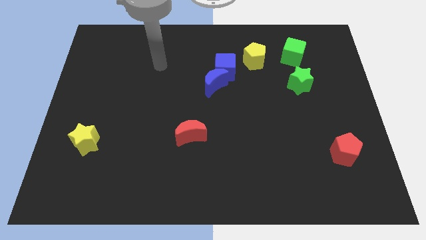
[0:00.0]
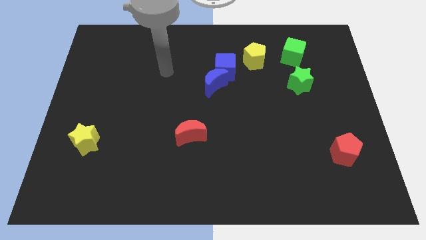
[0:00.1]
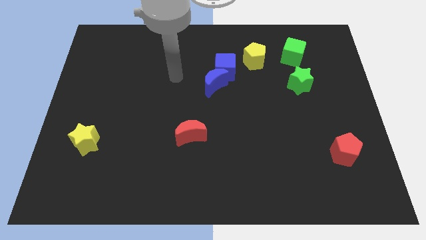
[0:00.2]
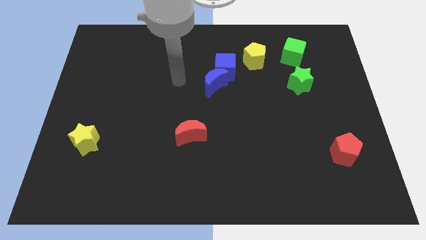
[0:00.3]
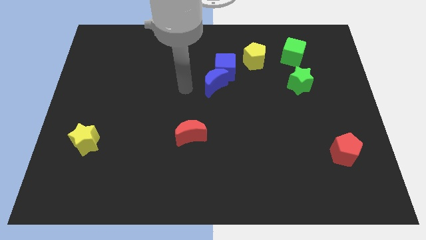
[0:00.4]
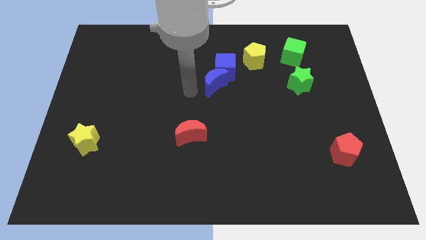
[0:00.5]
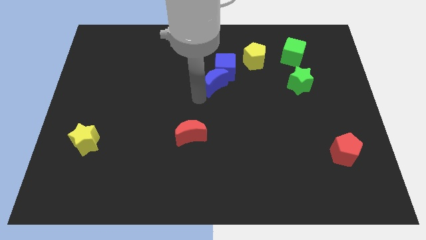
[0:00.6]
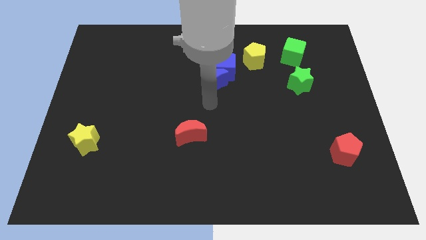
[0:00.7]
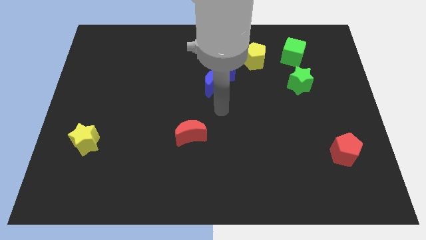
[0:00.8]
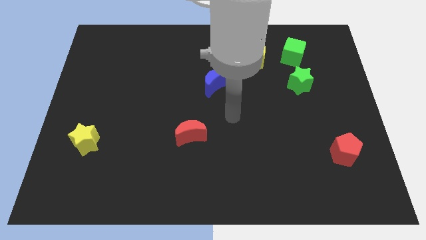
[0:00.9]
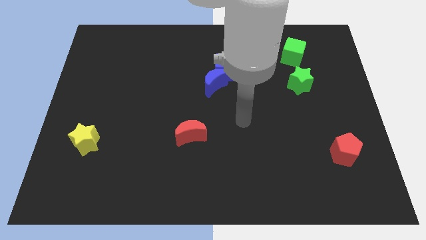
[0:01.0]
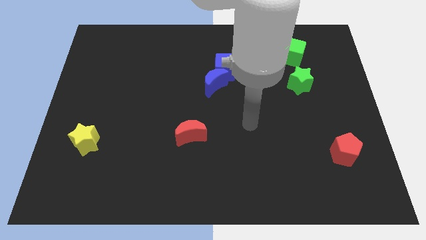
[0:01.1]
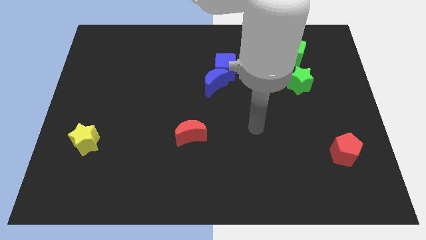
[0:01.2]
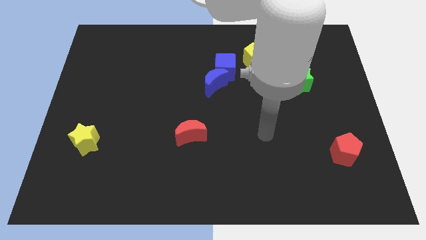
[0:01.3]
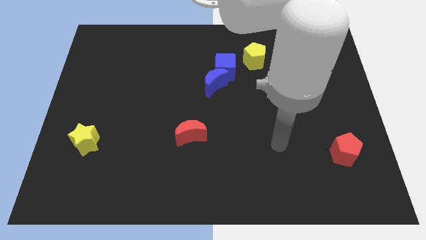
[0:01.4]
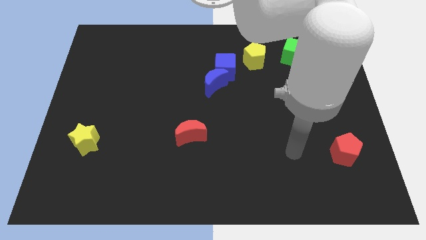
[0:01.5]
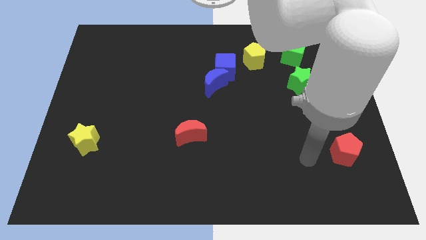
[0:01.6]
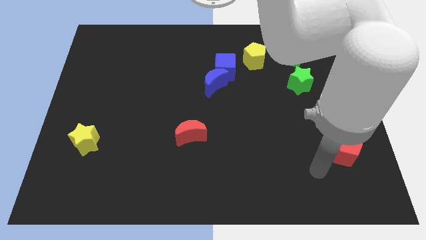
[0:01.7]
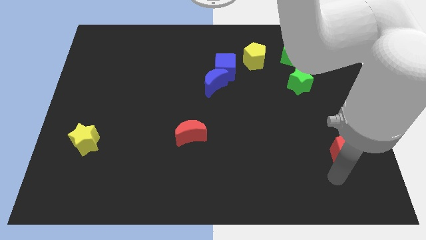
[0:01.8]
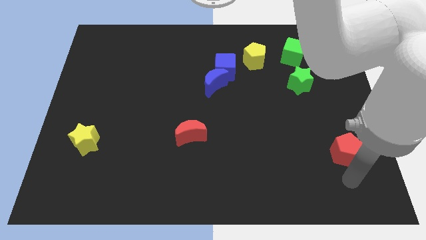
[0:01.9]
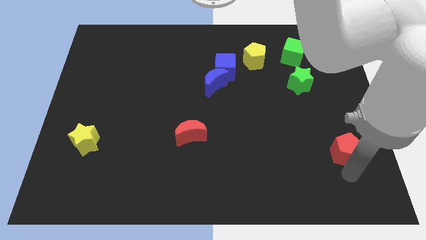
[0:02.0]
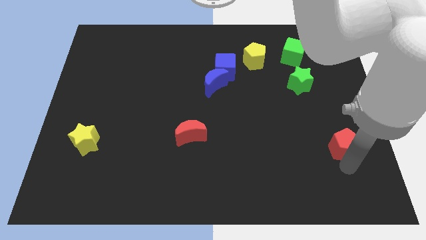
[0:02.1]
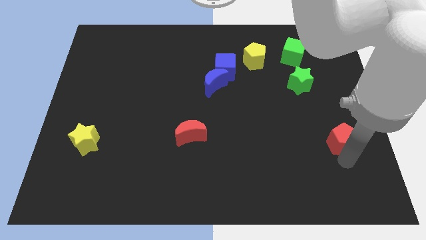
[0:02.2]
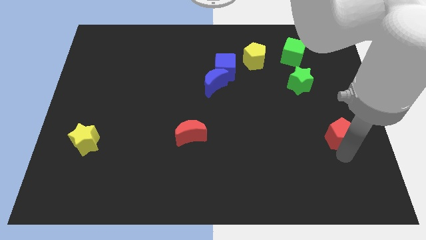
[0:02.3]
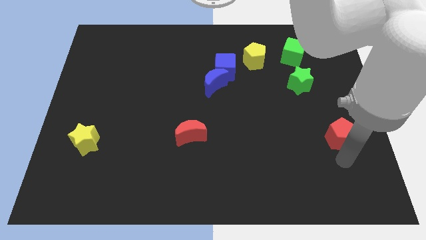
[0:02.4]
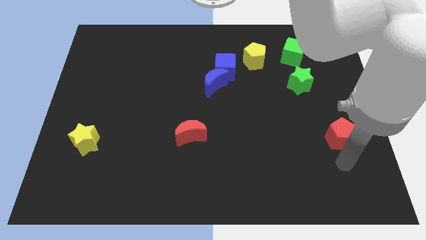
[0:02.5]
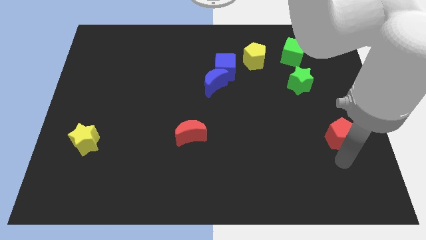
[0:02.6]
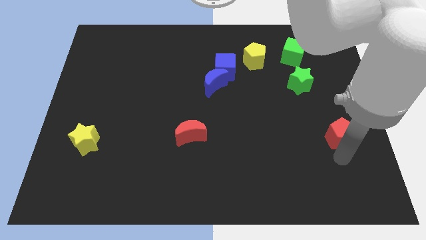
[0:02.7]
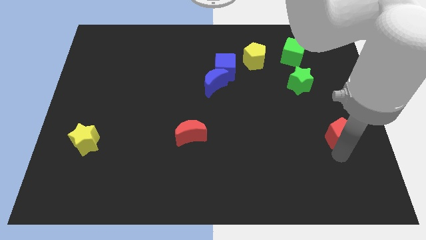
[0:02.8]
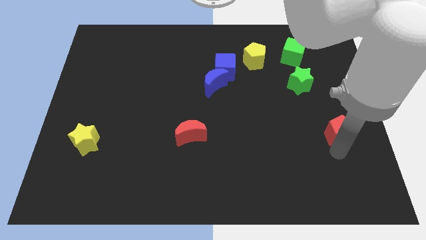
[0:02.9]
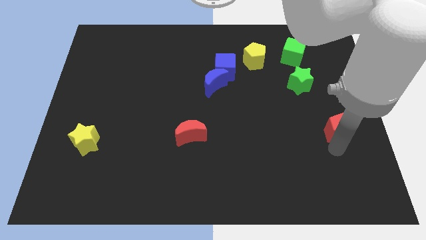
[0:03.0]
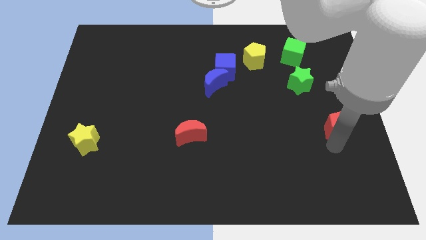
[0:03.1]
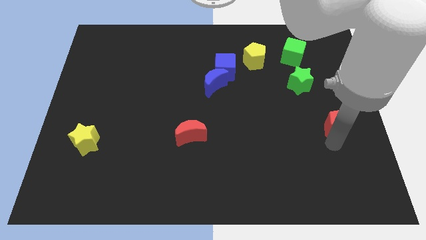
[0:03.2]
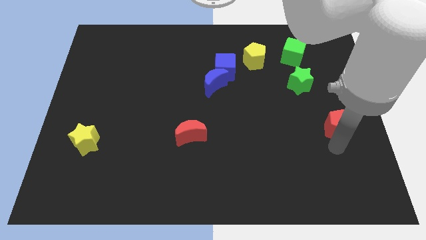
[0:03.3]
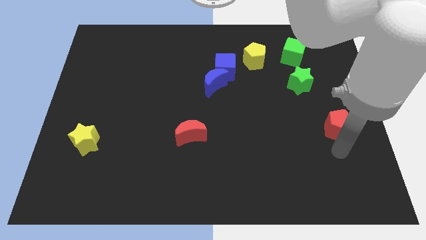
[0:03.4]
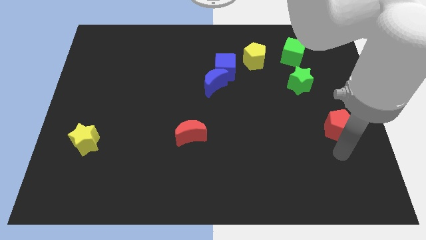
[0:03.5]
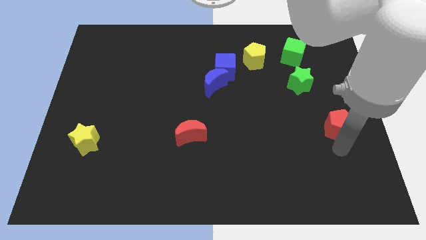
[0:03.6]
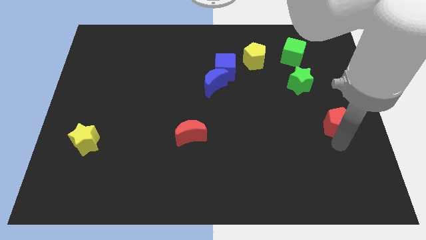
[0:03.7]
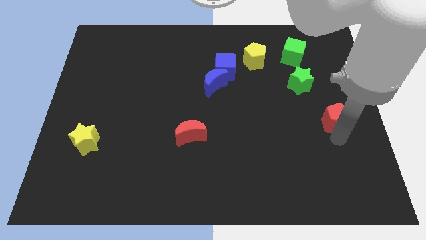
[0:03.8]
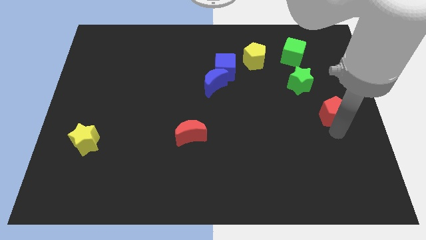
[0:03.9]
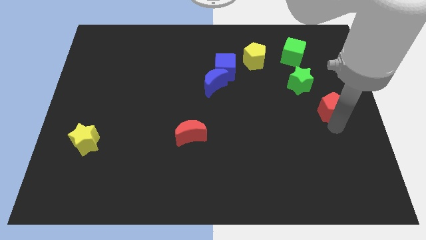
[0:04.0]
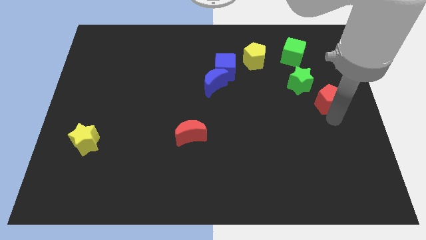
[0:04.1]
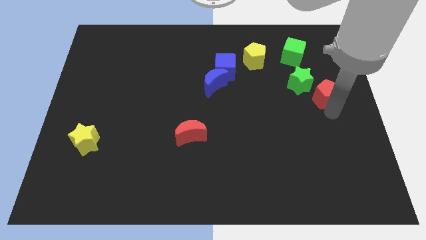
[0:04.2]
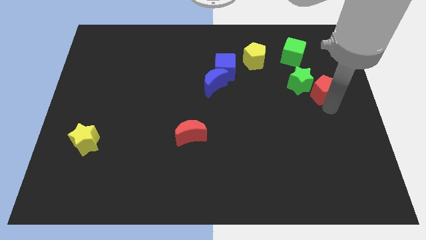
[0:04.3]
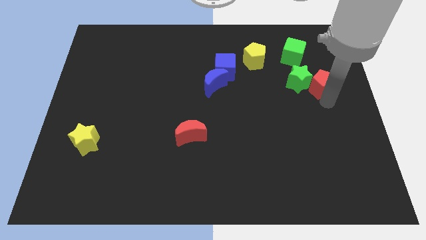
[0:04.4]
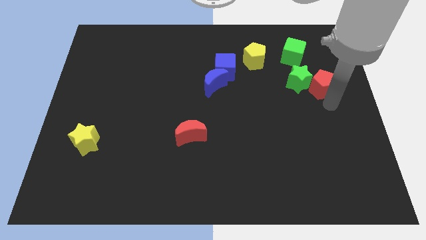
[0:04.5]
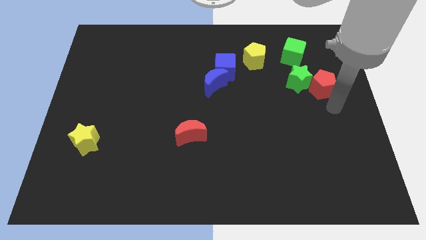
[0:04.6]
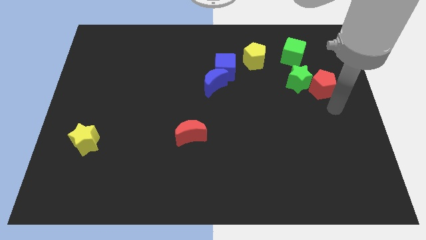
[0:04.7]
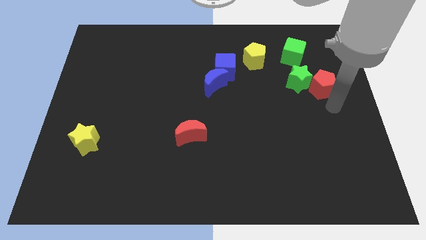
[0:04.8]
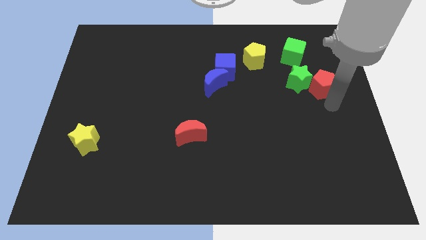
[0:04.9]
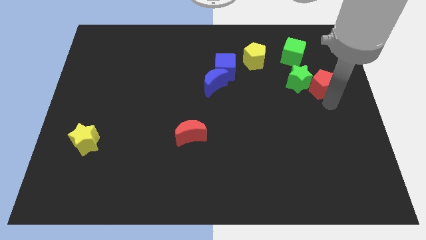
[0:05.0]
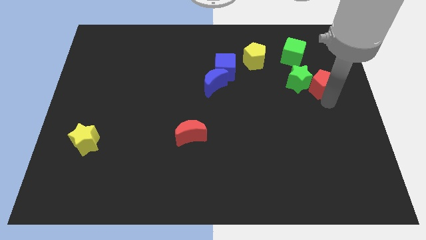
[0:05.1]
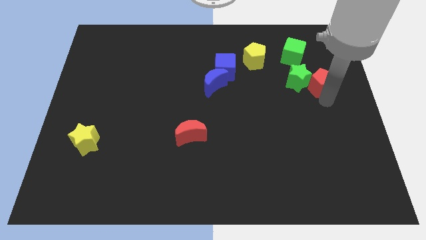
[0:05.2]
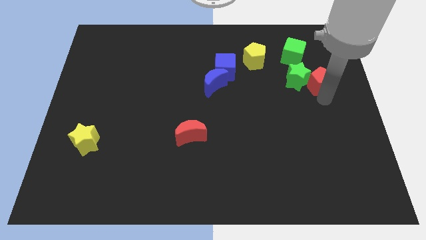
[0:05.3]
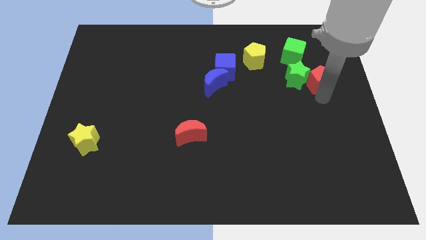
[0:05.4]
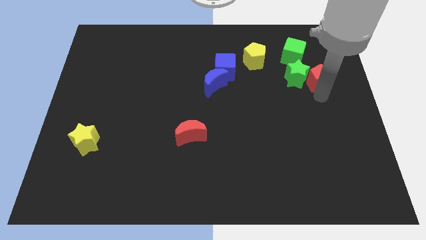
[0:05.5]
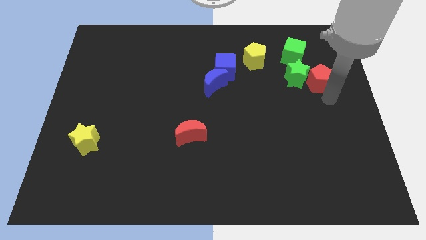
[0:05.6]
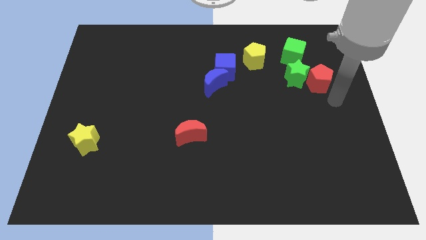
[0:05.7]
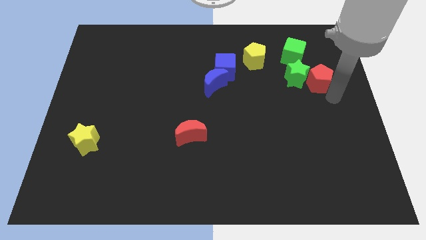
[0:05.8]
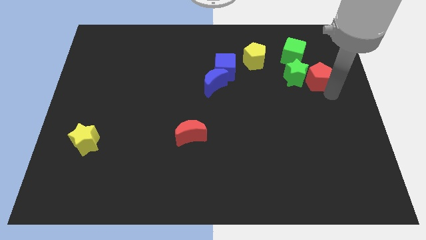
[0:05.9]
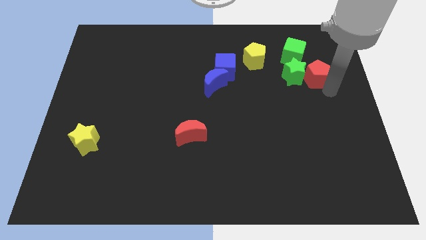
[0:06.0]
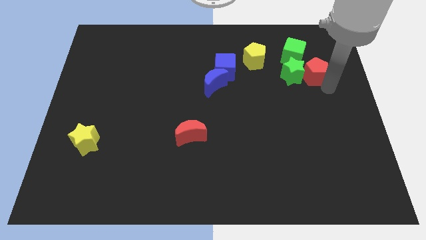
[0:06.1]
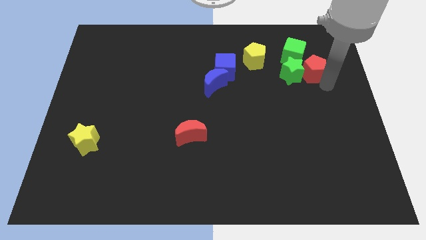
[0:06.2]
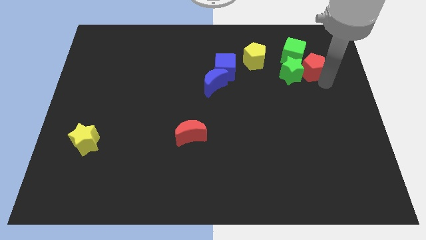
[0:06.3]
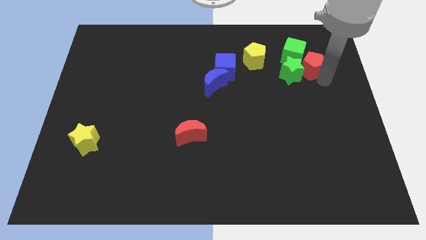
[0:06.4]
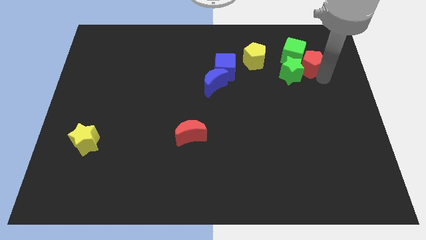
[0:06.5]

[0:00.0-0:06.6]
push the red pentagon close to the green cube

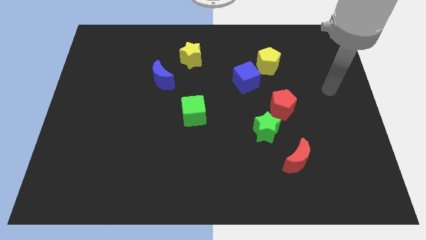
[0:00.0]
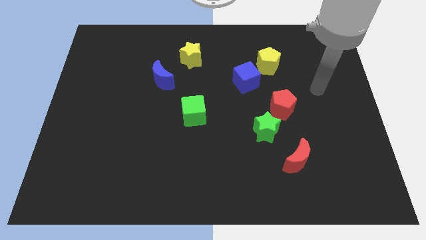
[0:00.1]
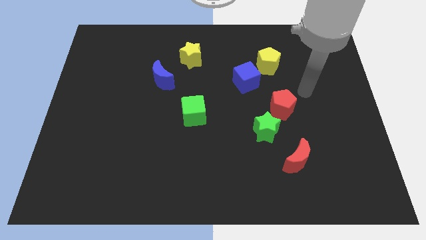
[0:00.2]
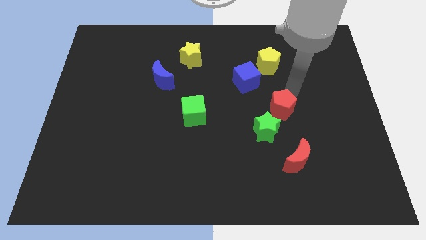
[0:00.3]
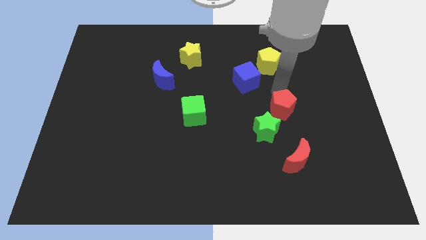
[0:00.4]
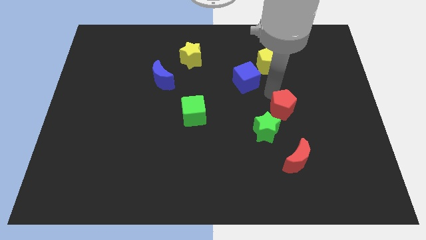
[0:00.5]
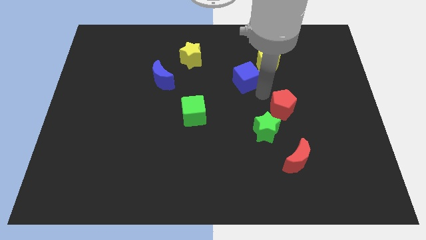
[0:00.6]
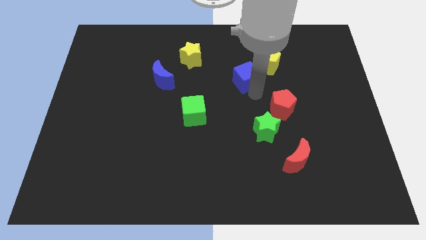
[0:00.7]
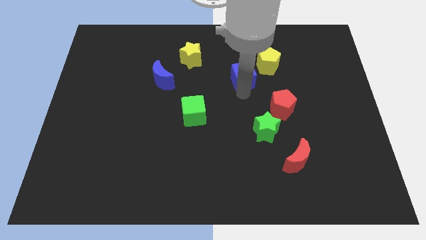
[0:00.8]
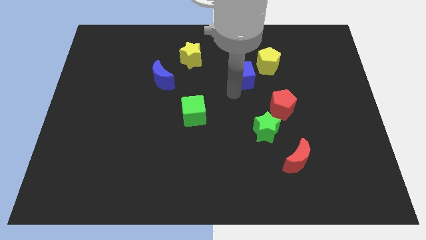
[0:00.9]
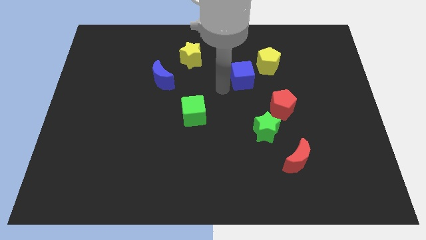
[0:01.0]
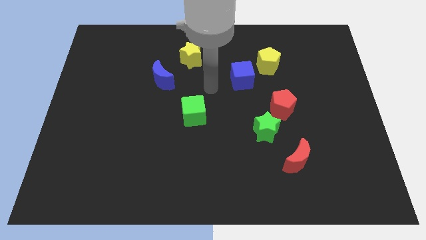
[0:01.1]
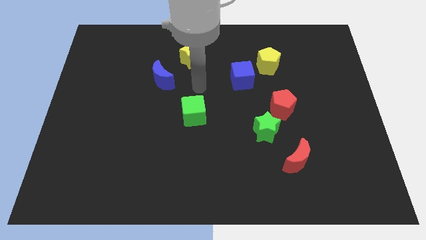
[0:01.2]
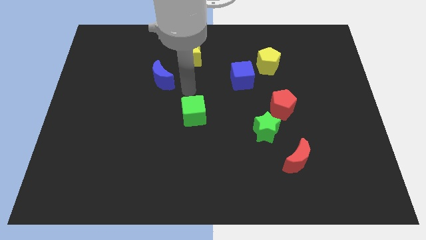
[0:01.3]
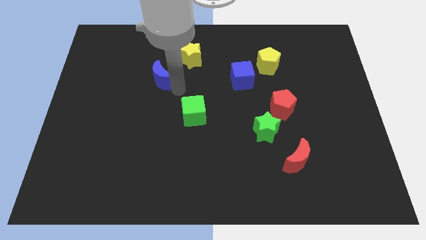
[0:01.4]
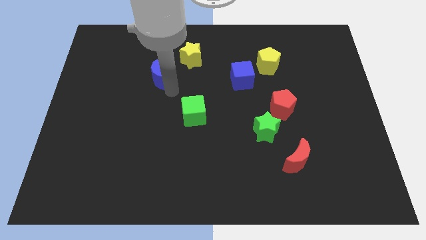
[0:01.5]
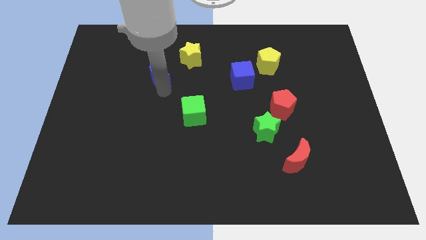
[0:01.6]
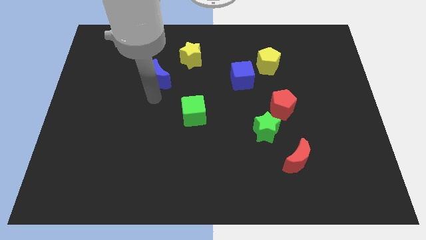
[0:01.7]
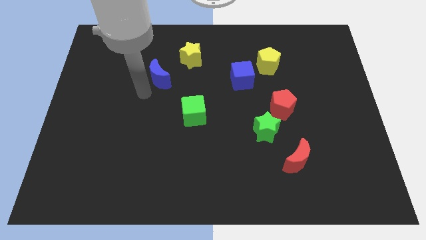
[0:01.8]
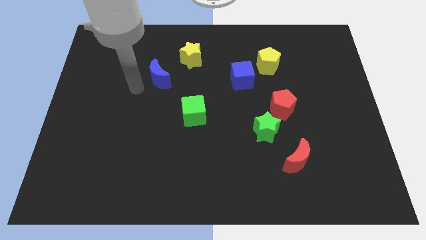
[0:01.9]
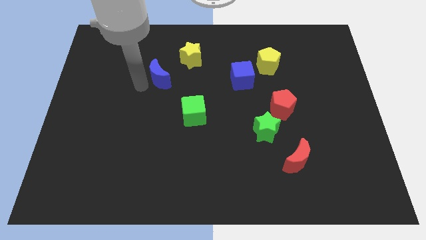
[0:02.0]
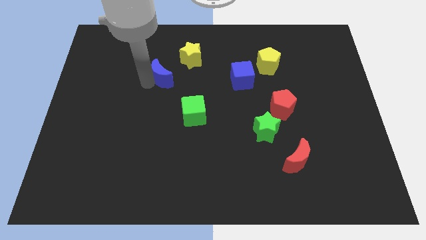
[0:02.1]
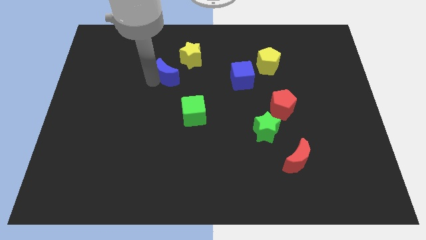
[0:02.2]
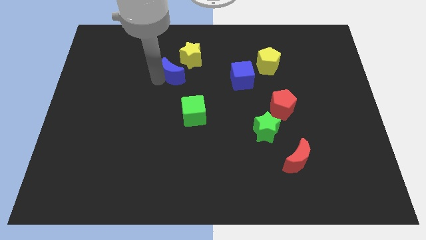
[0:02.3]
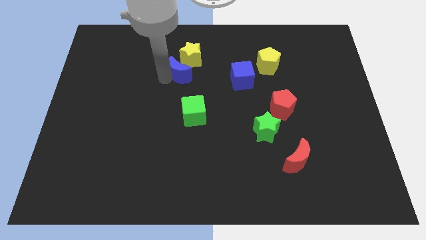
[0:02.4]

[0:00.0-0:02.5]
put the blue moon towards the yellow star
